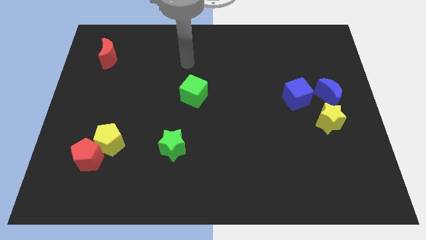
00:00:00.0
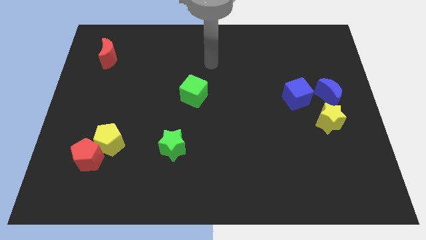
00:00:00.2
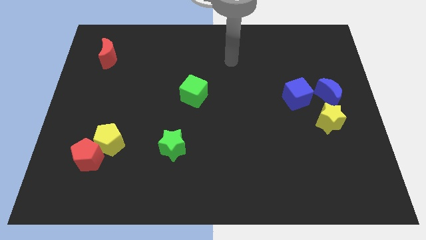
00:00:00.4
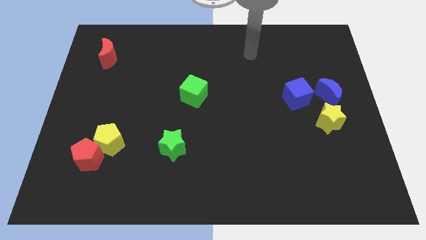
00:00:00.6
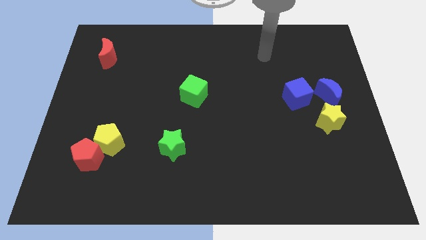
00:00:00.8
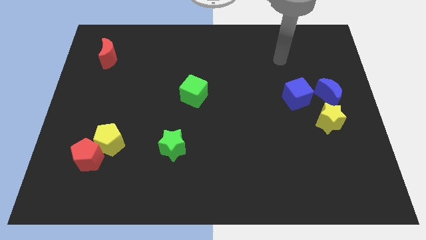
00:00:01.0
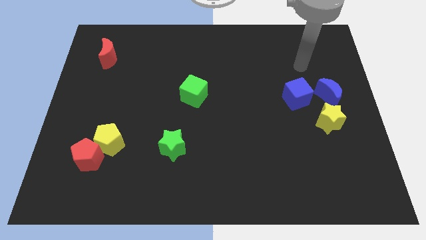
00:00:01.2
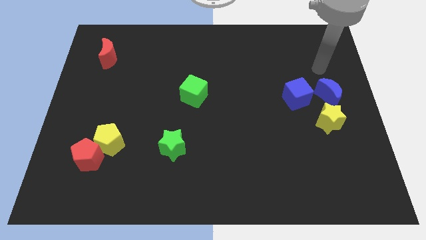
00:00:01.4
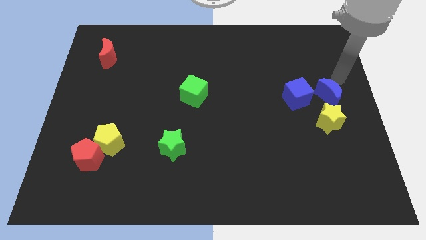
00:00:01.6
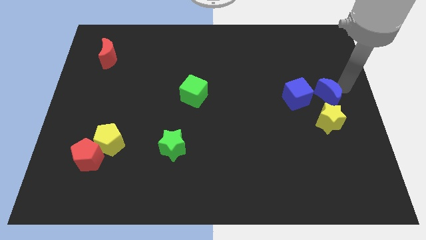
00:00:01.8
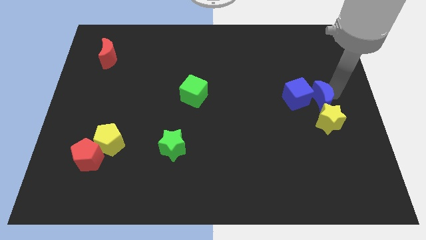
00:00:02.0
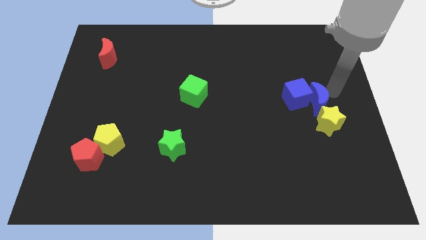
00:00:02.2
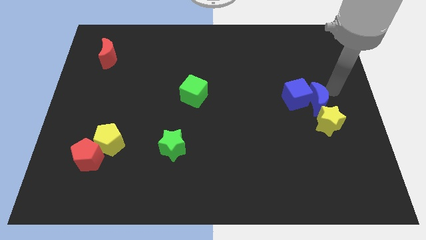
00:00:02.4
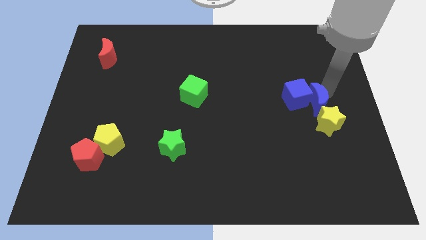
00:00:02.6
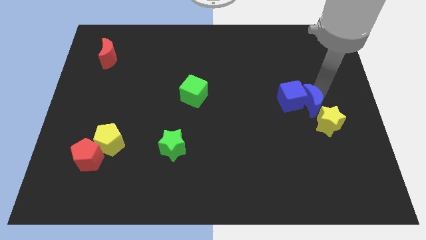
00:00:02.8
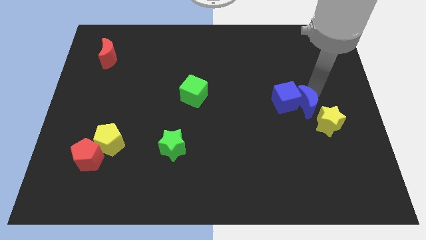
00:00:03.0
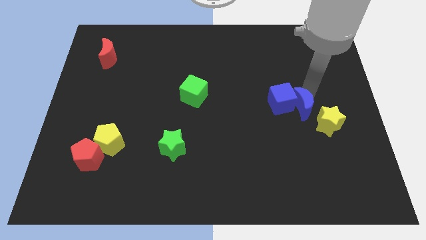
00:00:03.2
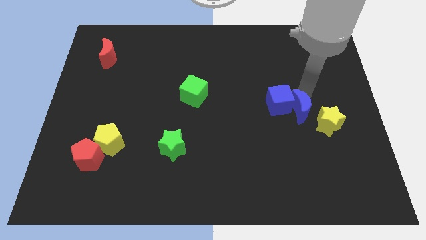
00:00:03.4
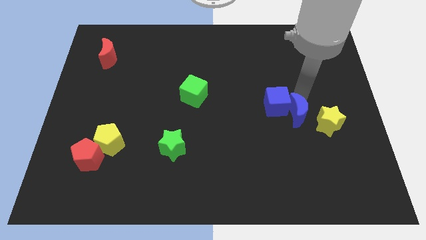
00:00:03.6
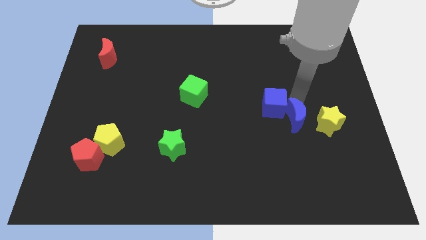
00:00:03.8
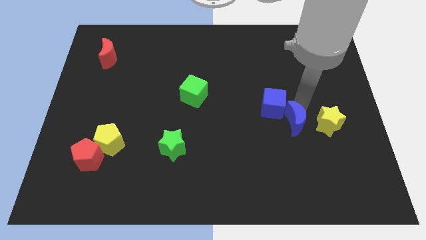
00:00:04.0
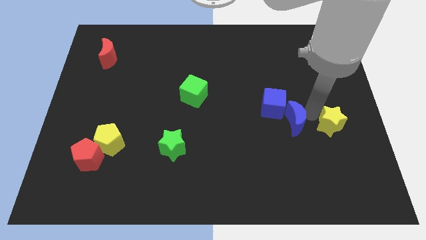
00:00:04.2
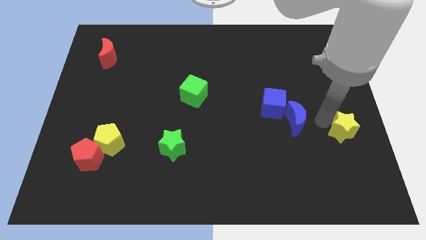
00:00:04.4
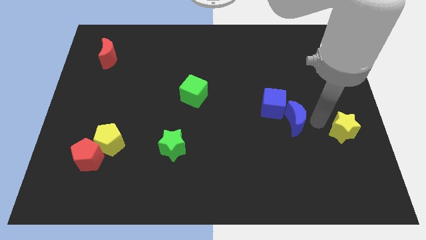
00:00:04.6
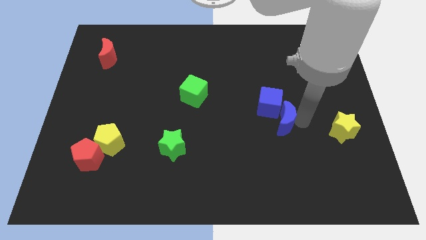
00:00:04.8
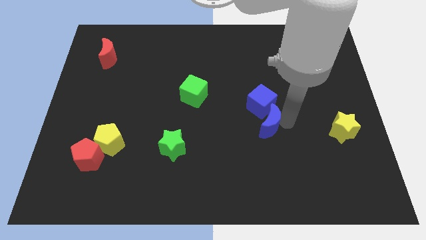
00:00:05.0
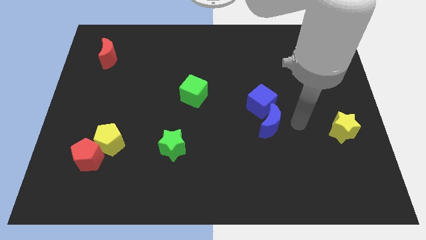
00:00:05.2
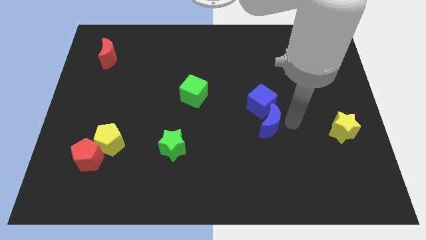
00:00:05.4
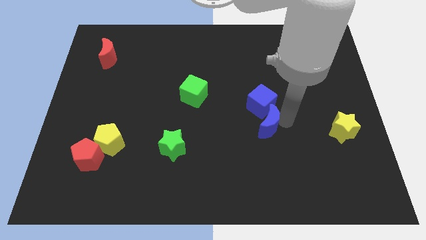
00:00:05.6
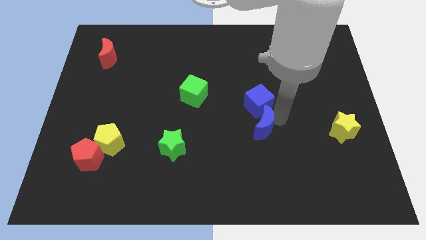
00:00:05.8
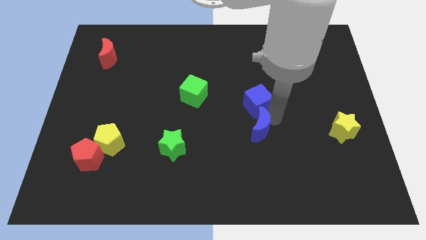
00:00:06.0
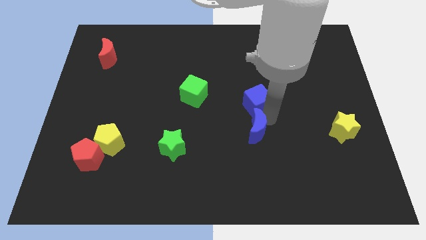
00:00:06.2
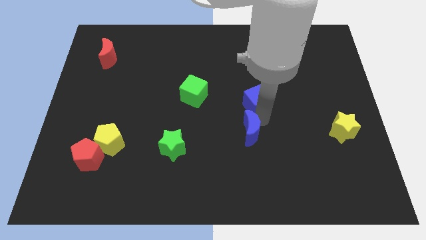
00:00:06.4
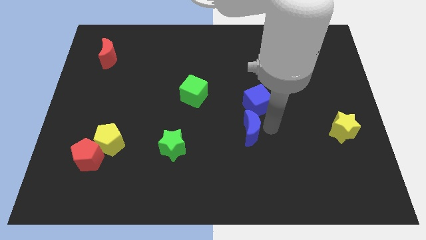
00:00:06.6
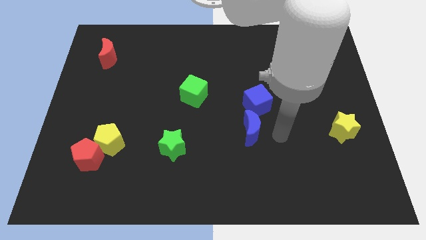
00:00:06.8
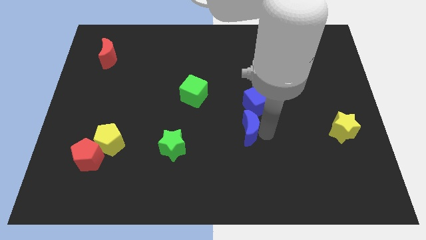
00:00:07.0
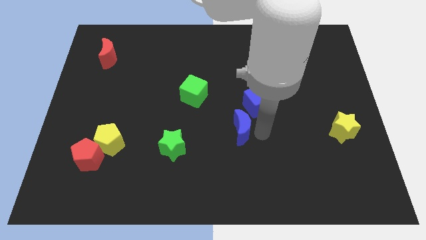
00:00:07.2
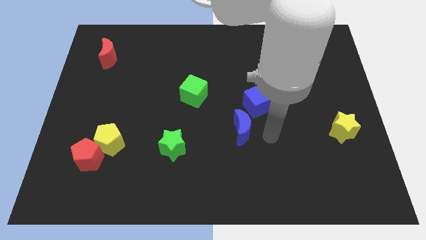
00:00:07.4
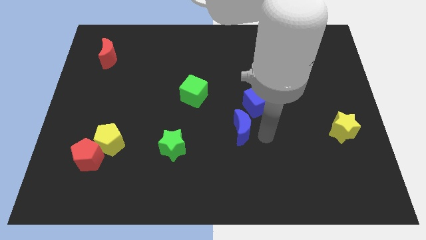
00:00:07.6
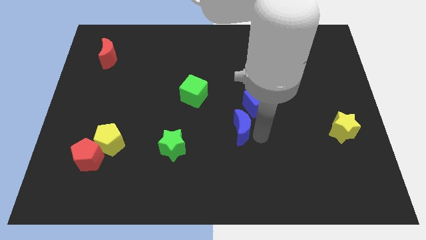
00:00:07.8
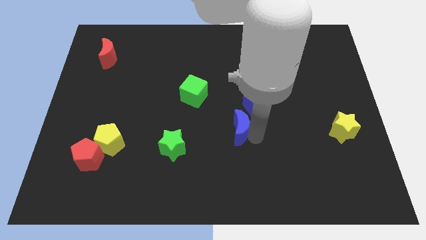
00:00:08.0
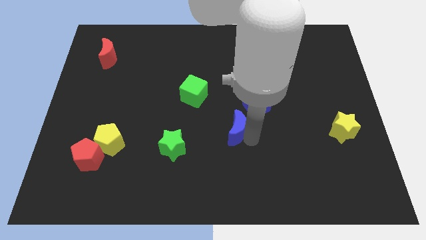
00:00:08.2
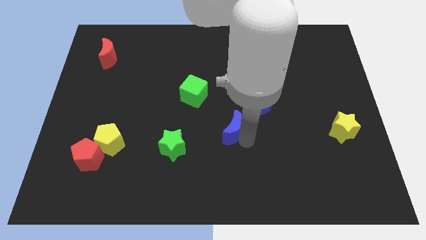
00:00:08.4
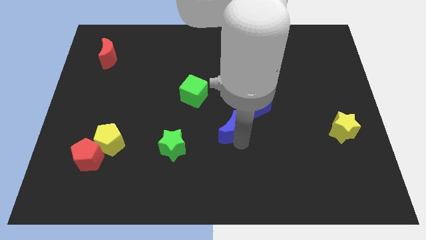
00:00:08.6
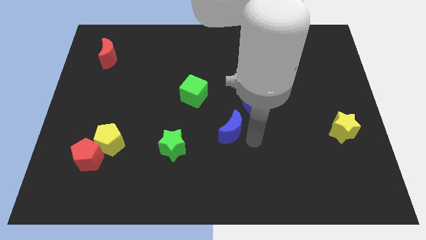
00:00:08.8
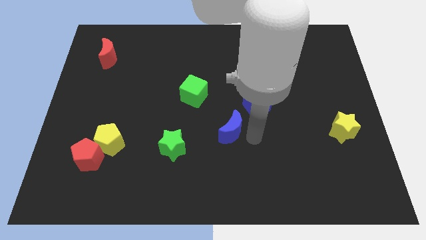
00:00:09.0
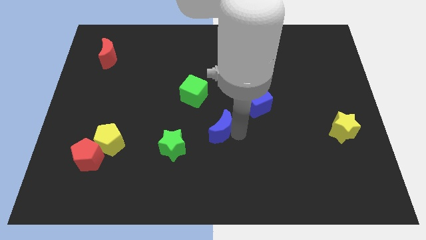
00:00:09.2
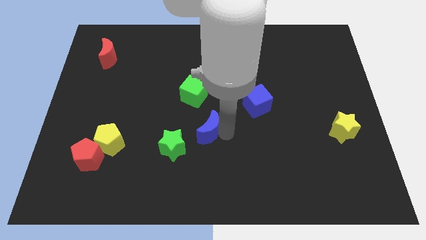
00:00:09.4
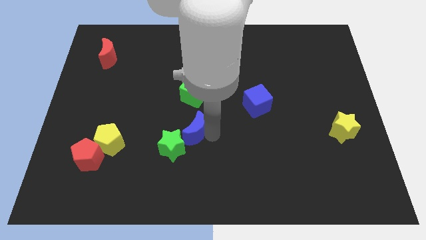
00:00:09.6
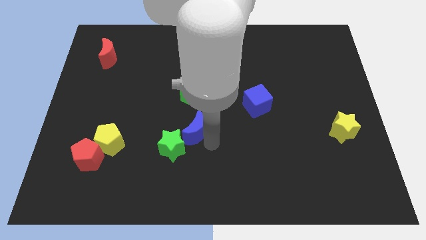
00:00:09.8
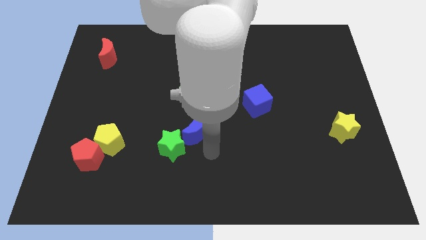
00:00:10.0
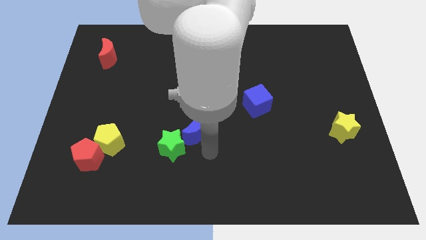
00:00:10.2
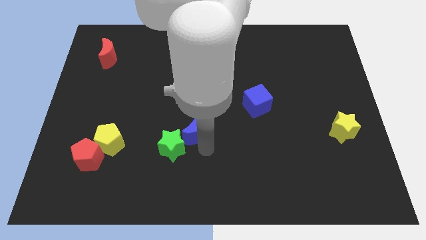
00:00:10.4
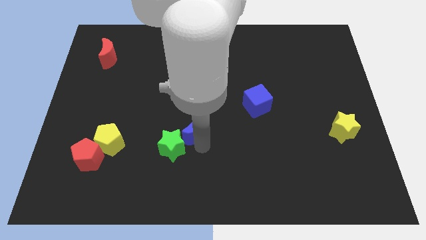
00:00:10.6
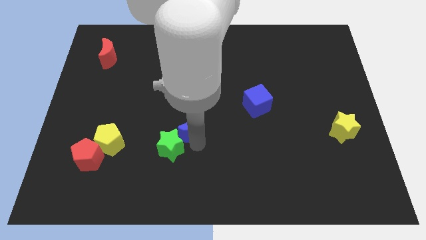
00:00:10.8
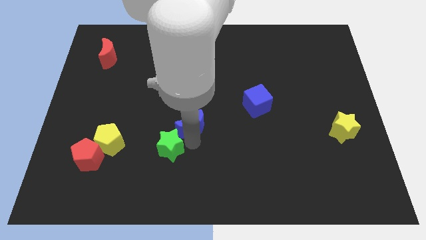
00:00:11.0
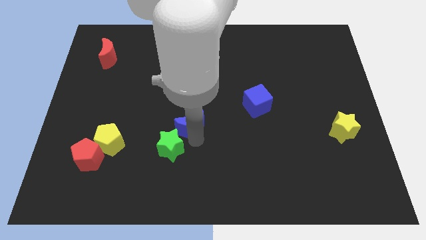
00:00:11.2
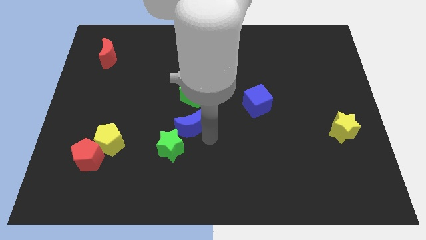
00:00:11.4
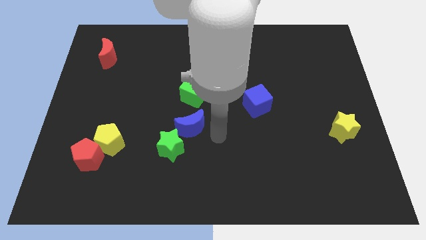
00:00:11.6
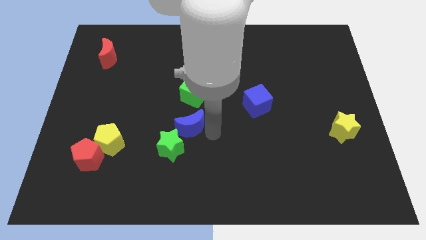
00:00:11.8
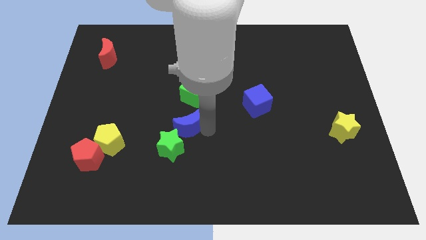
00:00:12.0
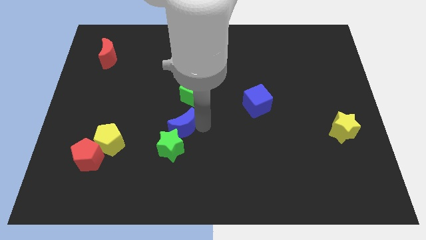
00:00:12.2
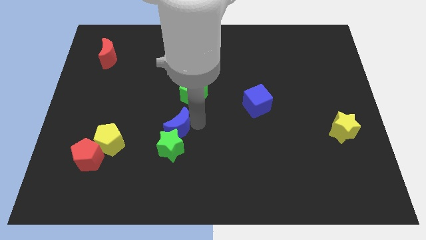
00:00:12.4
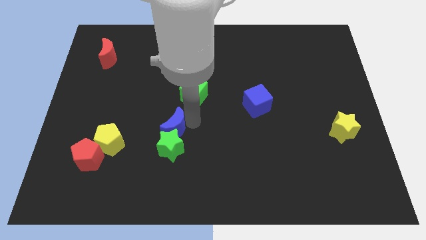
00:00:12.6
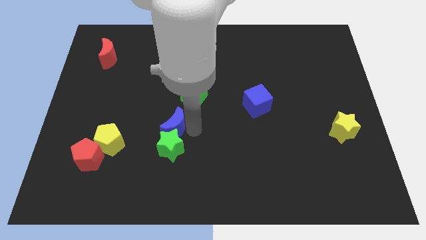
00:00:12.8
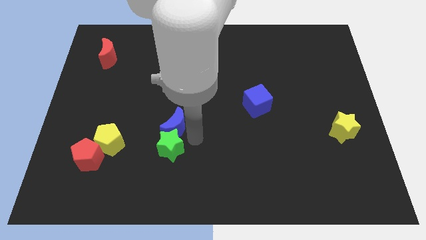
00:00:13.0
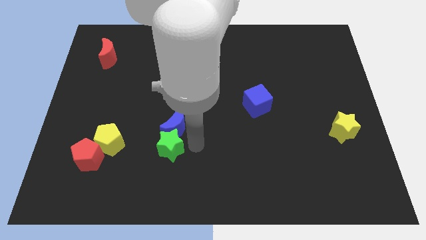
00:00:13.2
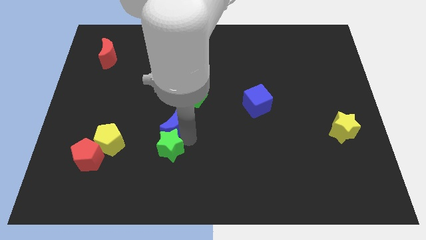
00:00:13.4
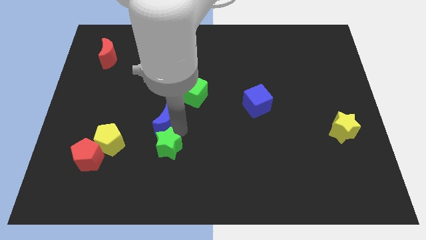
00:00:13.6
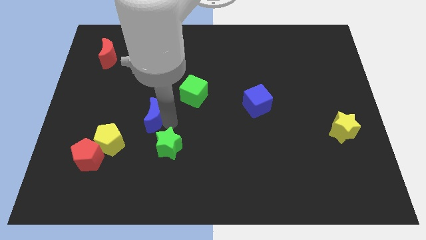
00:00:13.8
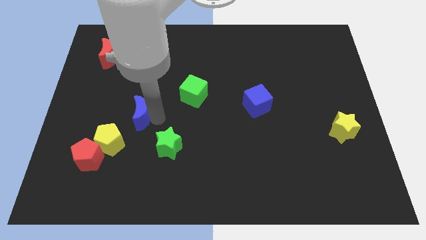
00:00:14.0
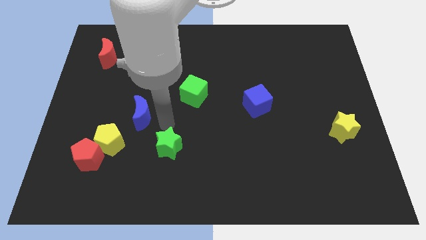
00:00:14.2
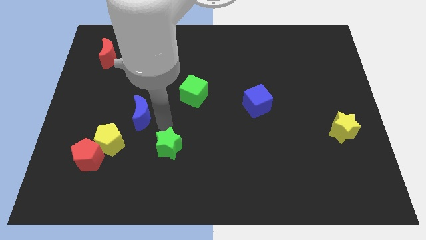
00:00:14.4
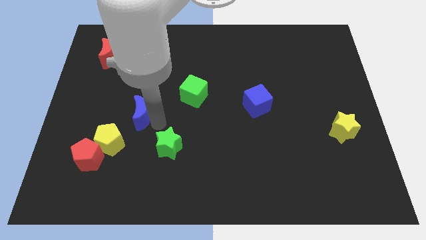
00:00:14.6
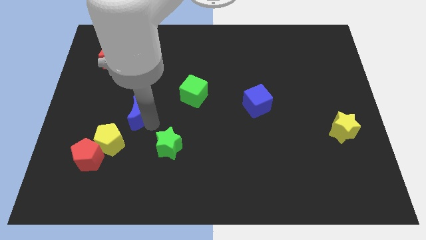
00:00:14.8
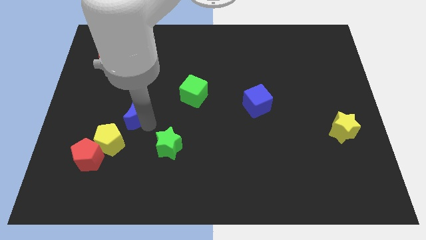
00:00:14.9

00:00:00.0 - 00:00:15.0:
slide the blue moon above the yellow pentagon
